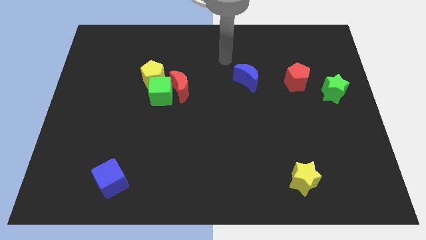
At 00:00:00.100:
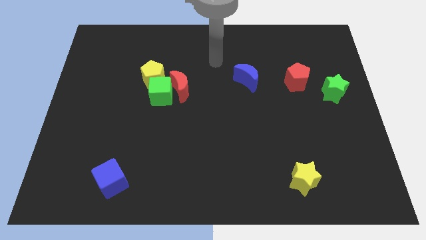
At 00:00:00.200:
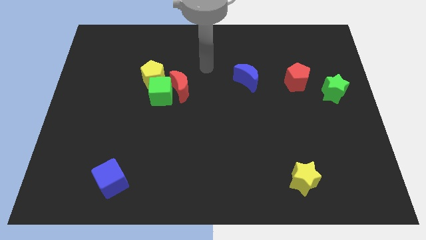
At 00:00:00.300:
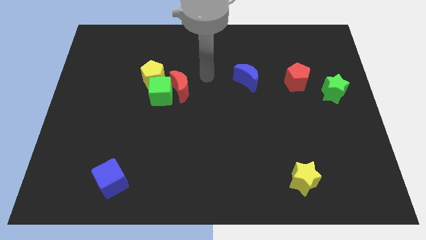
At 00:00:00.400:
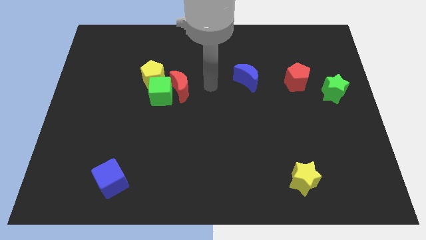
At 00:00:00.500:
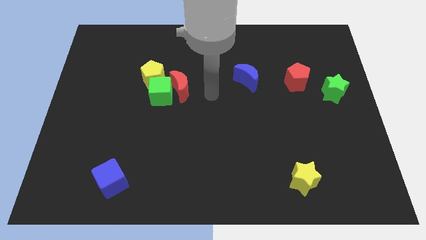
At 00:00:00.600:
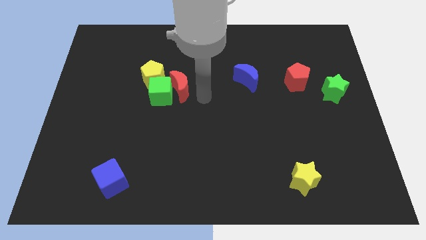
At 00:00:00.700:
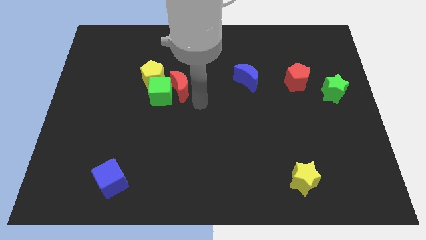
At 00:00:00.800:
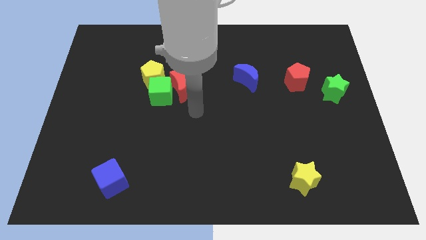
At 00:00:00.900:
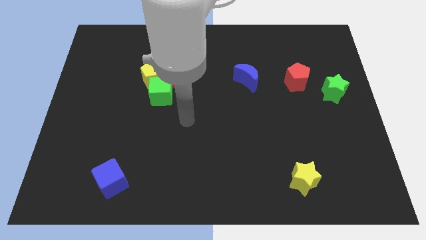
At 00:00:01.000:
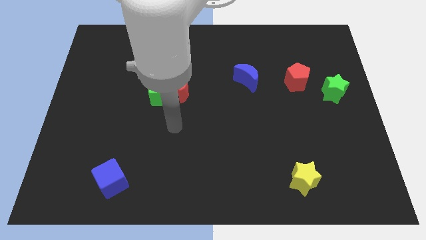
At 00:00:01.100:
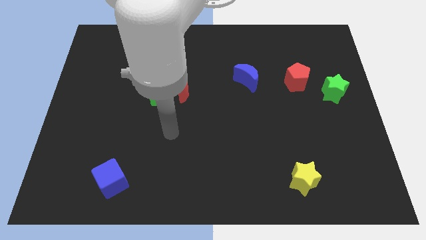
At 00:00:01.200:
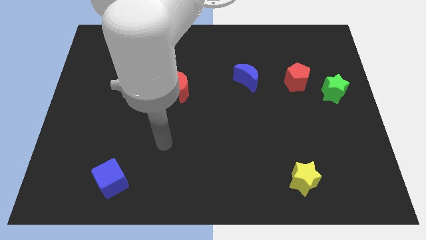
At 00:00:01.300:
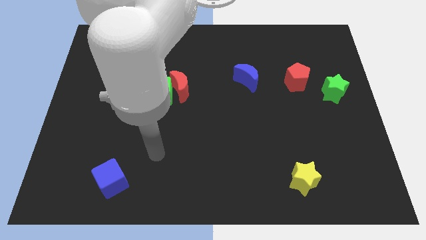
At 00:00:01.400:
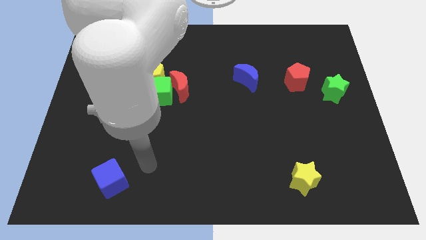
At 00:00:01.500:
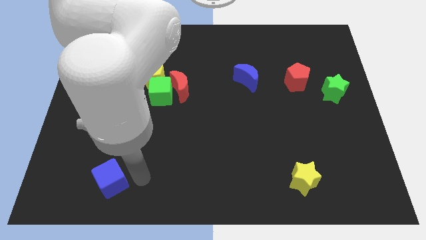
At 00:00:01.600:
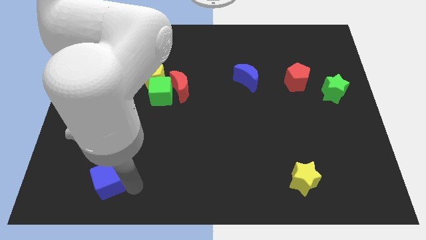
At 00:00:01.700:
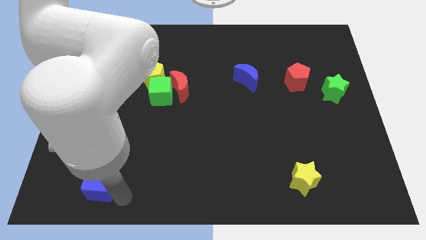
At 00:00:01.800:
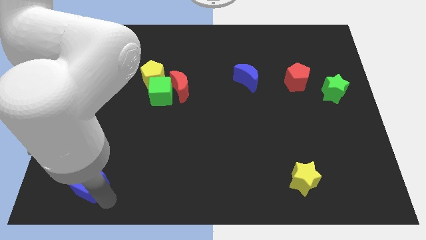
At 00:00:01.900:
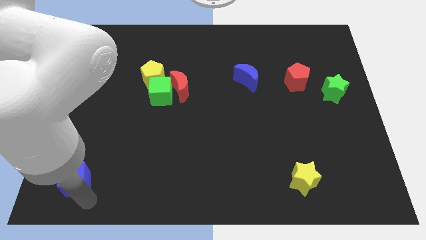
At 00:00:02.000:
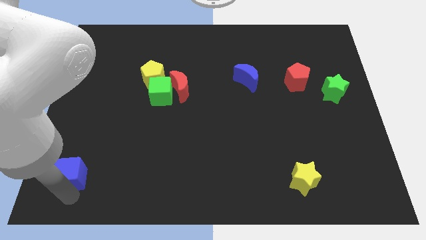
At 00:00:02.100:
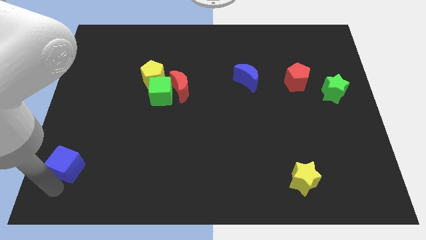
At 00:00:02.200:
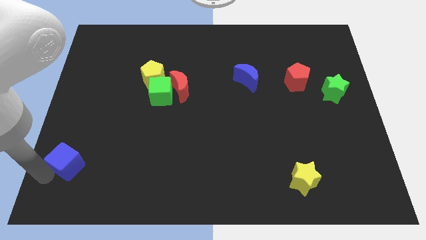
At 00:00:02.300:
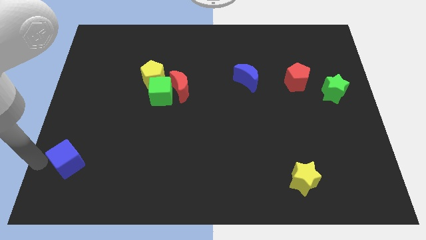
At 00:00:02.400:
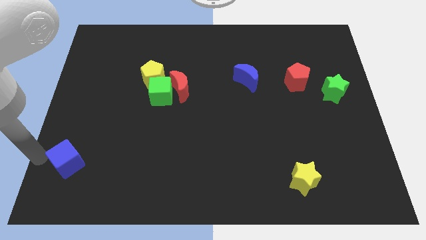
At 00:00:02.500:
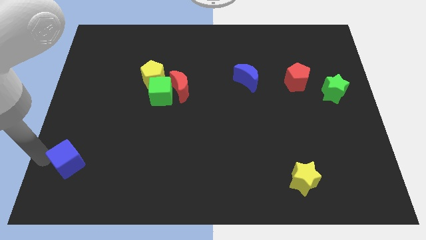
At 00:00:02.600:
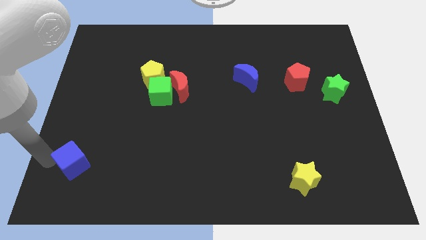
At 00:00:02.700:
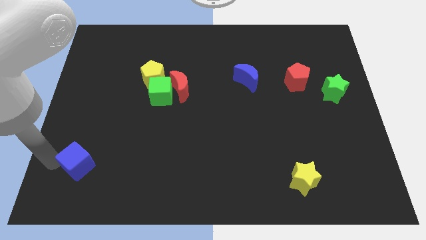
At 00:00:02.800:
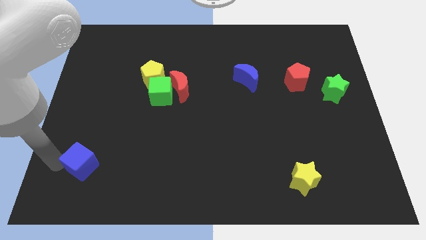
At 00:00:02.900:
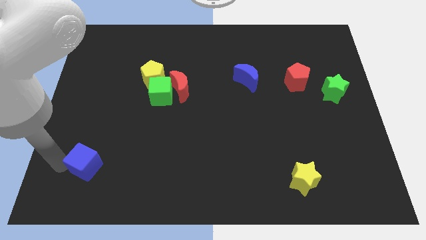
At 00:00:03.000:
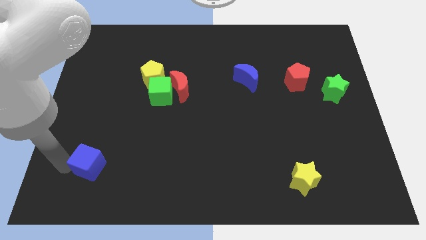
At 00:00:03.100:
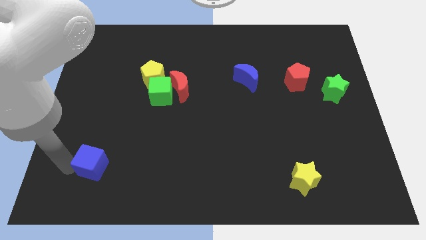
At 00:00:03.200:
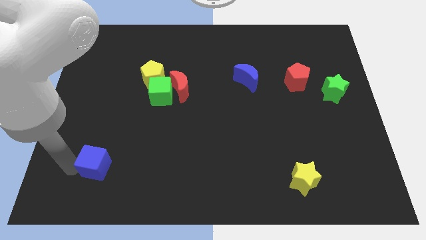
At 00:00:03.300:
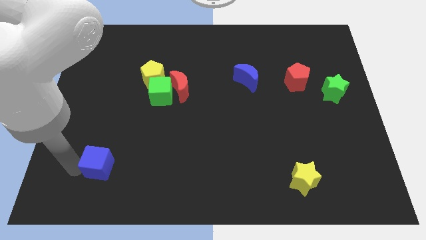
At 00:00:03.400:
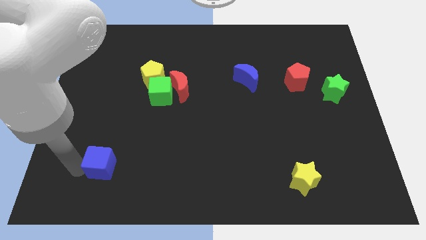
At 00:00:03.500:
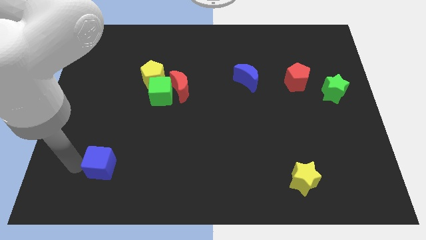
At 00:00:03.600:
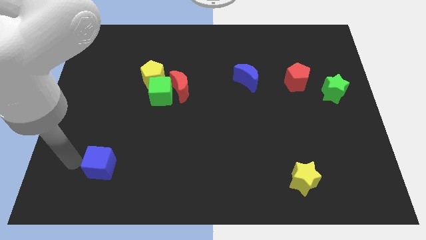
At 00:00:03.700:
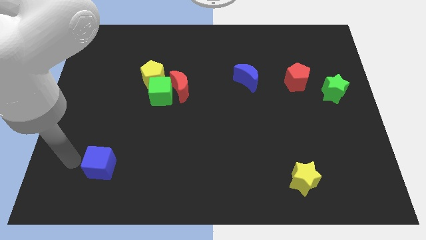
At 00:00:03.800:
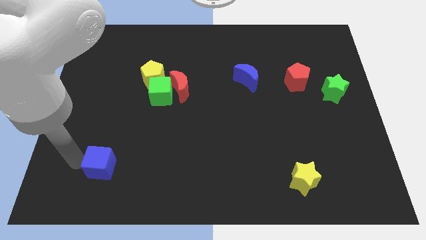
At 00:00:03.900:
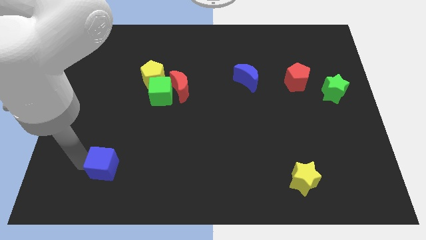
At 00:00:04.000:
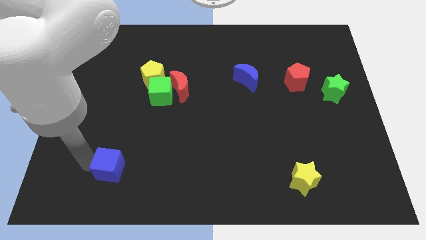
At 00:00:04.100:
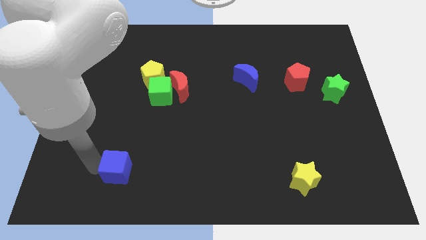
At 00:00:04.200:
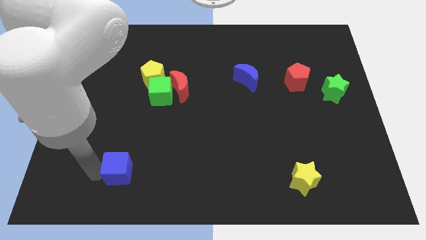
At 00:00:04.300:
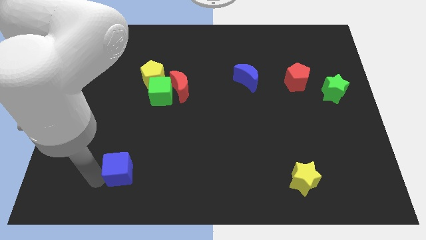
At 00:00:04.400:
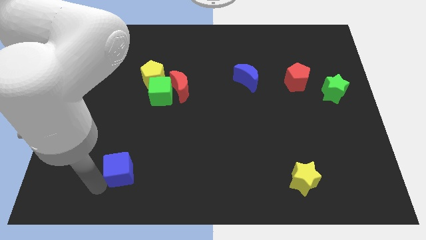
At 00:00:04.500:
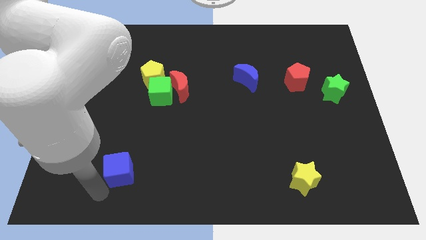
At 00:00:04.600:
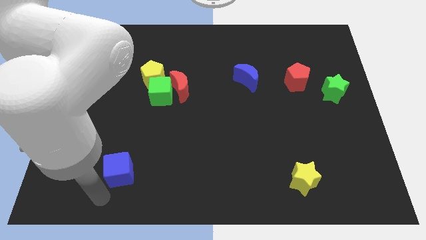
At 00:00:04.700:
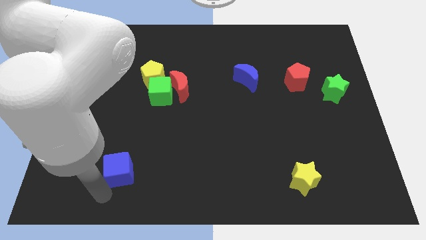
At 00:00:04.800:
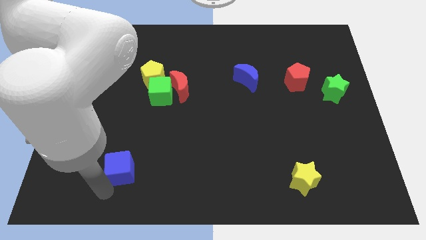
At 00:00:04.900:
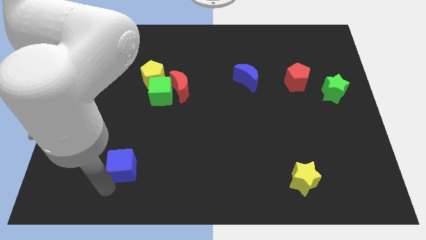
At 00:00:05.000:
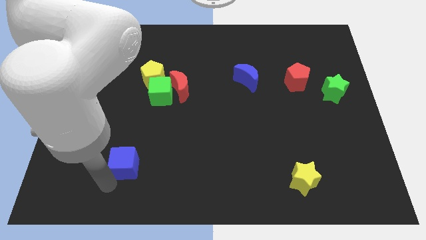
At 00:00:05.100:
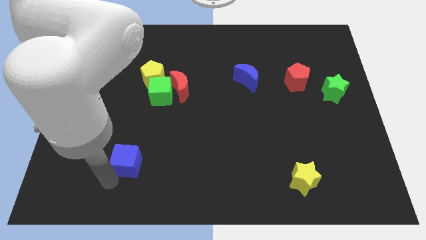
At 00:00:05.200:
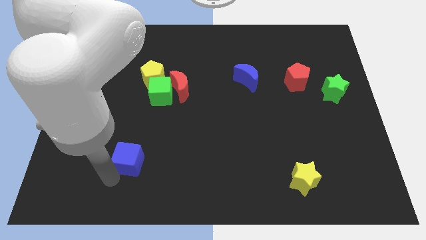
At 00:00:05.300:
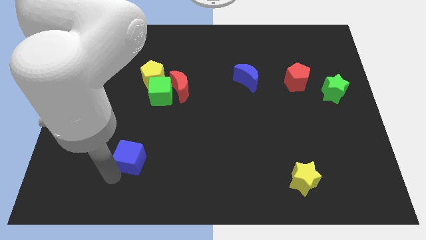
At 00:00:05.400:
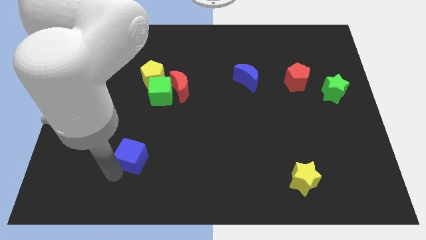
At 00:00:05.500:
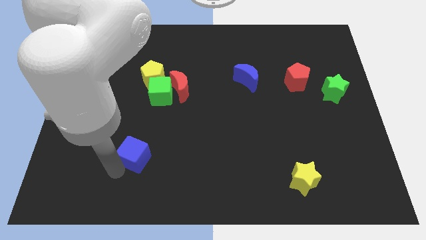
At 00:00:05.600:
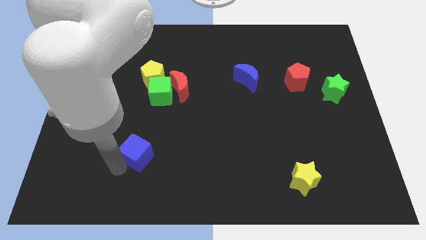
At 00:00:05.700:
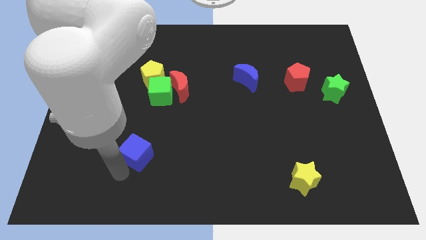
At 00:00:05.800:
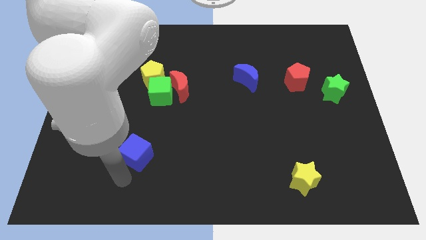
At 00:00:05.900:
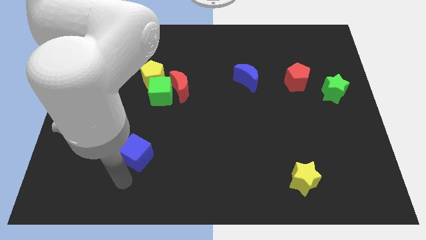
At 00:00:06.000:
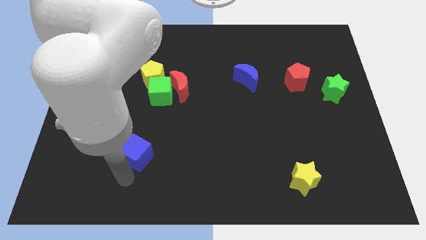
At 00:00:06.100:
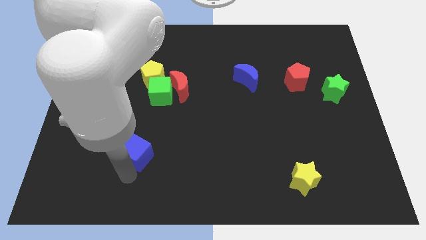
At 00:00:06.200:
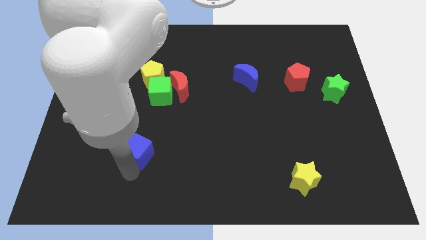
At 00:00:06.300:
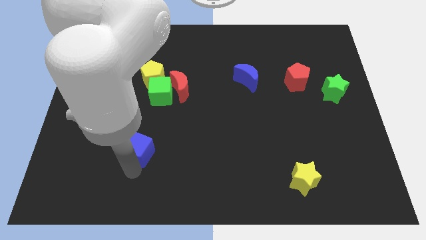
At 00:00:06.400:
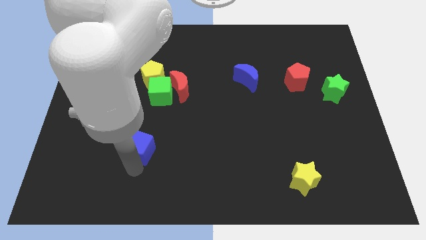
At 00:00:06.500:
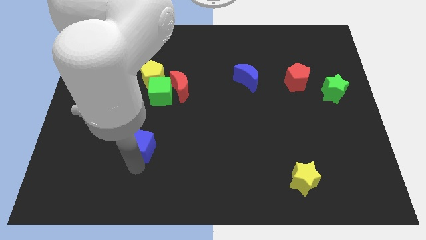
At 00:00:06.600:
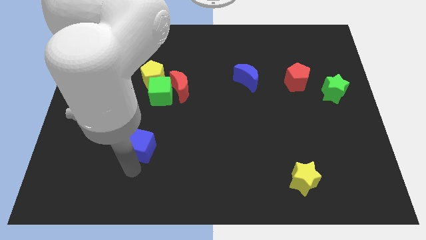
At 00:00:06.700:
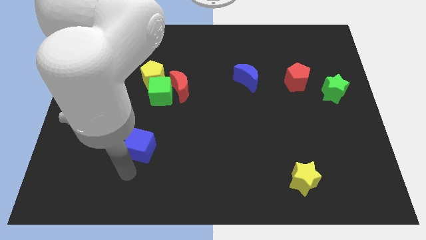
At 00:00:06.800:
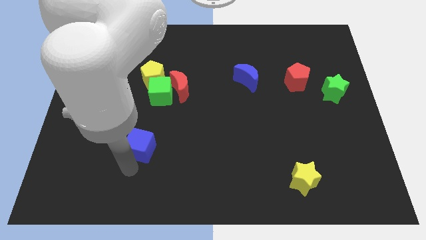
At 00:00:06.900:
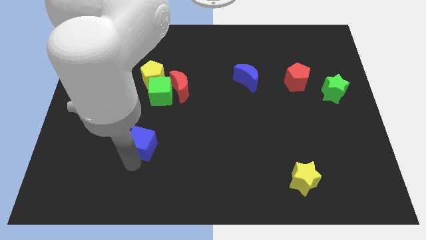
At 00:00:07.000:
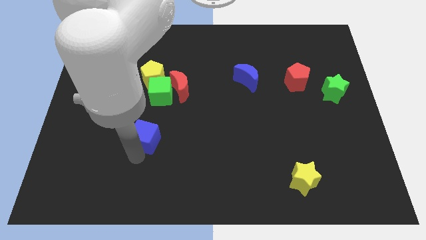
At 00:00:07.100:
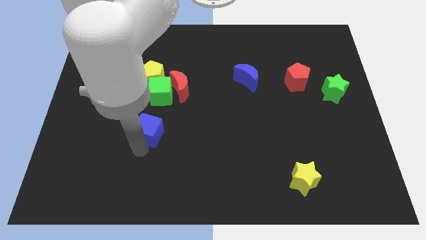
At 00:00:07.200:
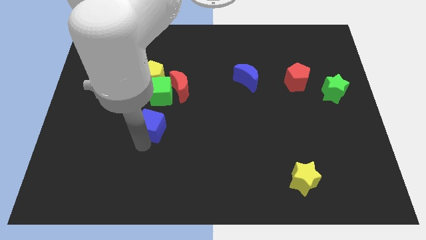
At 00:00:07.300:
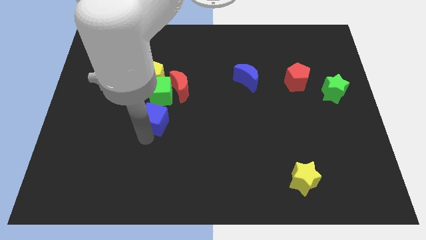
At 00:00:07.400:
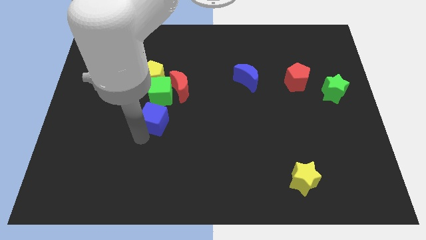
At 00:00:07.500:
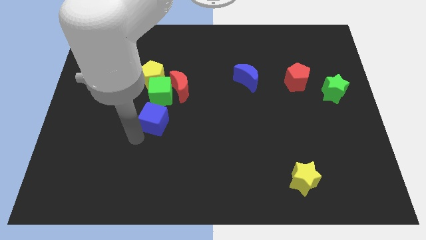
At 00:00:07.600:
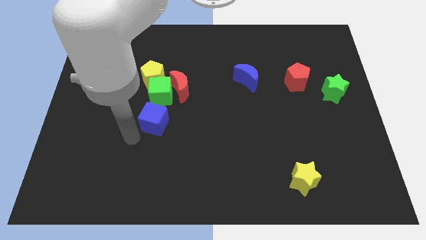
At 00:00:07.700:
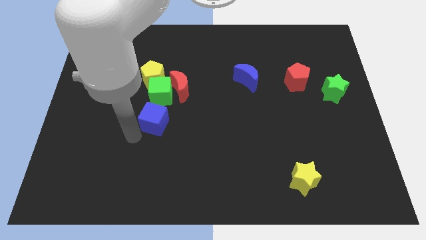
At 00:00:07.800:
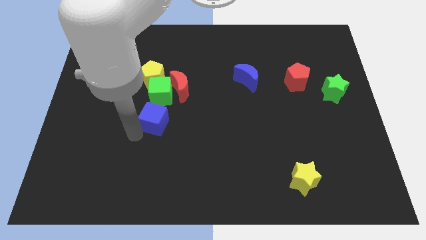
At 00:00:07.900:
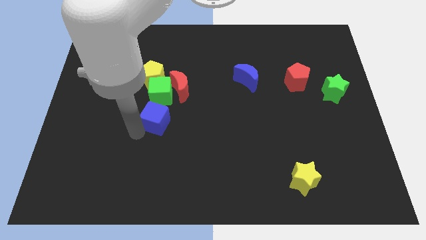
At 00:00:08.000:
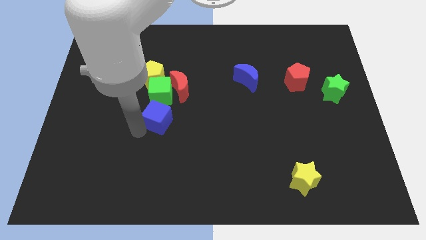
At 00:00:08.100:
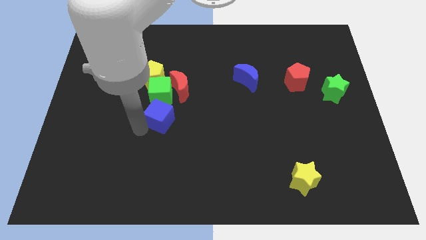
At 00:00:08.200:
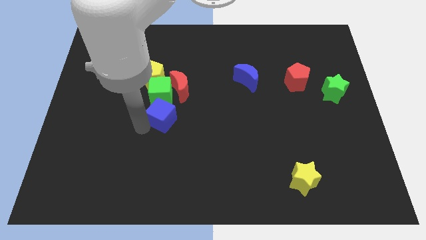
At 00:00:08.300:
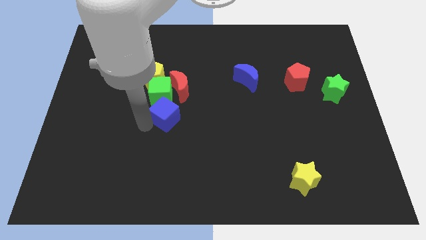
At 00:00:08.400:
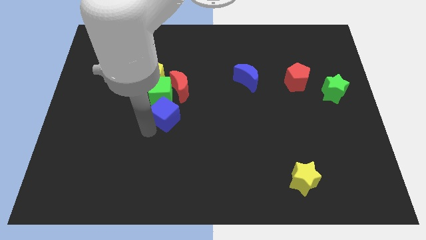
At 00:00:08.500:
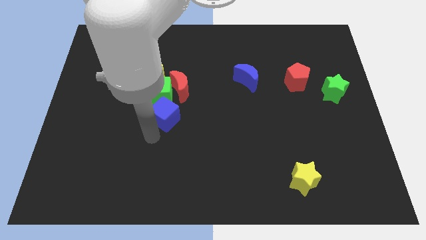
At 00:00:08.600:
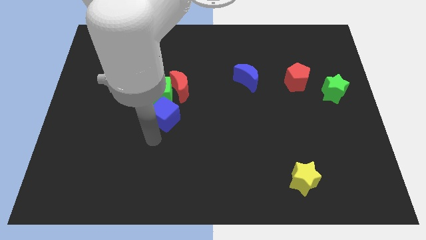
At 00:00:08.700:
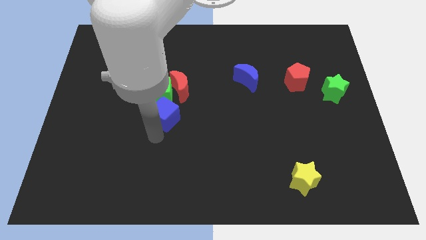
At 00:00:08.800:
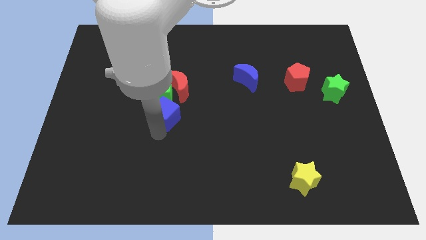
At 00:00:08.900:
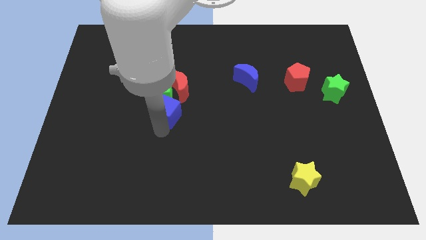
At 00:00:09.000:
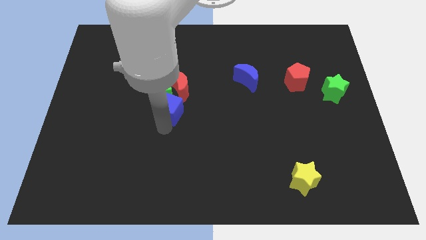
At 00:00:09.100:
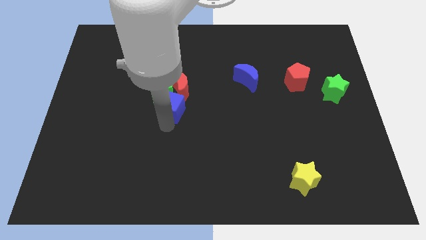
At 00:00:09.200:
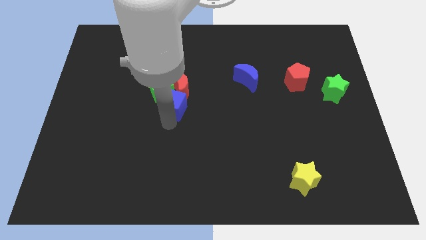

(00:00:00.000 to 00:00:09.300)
slide the blue cube next to the red moon
